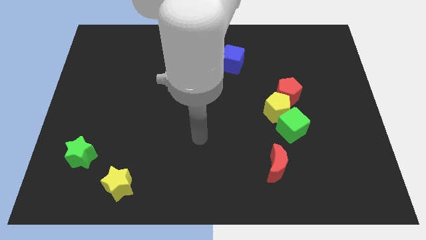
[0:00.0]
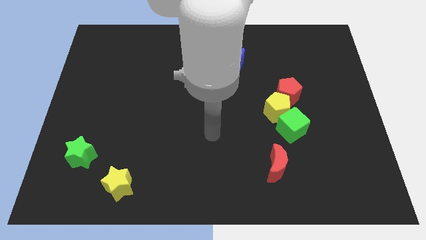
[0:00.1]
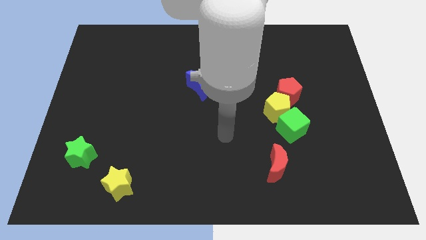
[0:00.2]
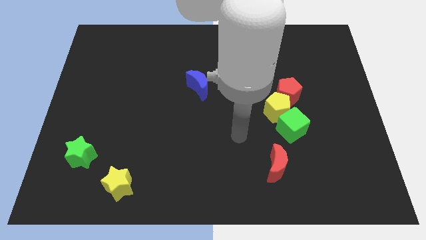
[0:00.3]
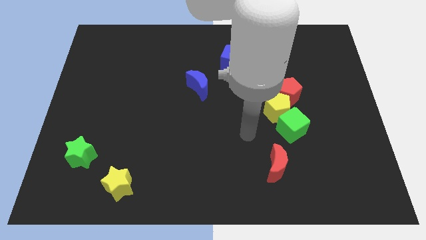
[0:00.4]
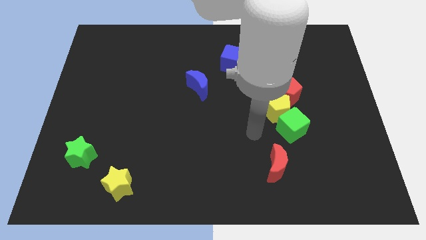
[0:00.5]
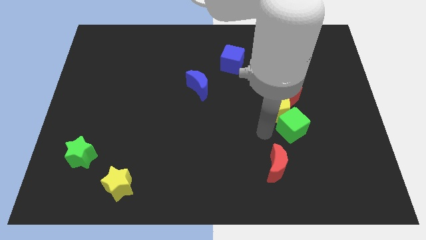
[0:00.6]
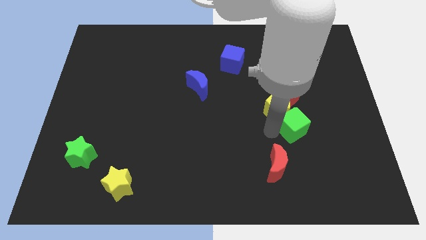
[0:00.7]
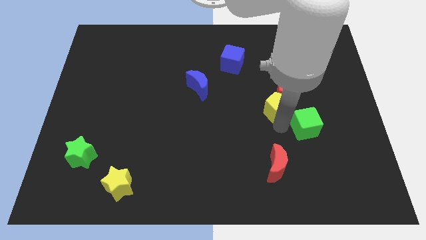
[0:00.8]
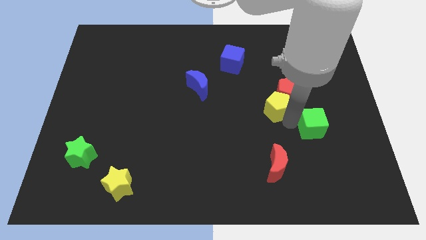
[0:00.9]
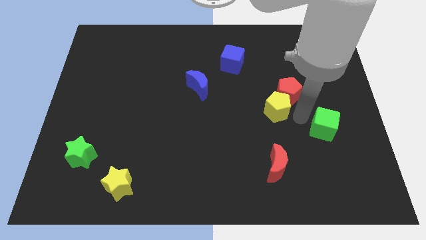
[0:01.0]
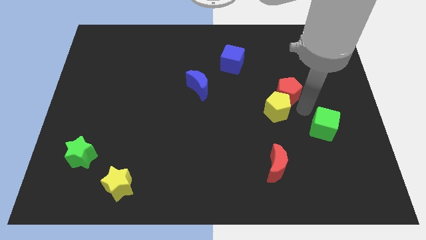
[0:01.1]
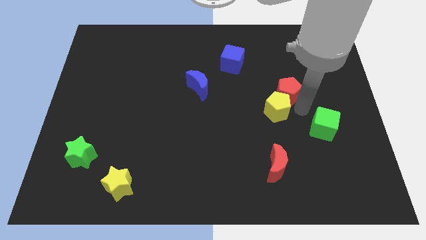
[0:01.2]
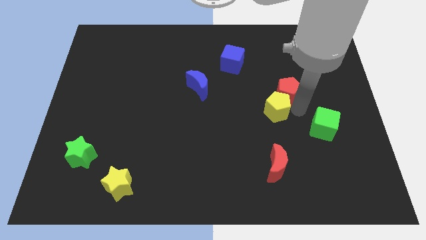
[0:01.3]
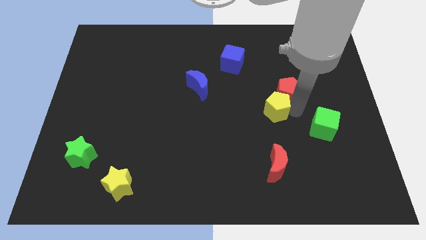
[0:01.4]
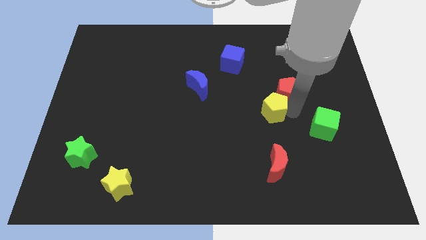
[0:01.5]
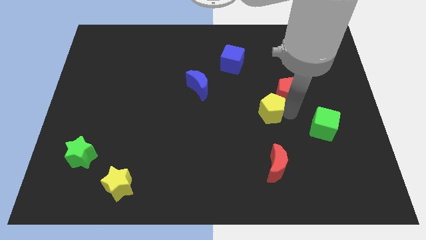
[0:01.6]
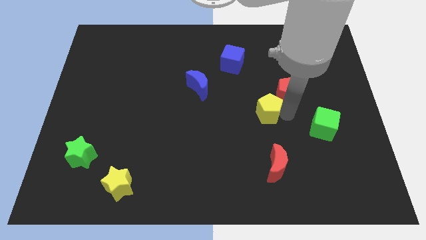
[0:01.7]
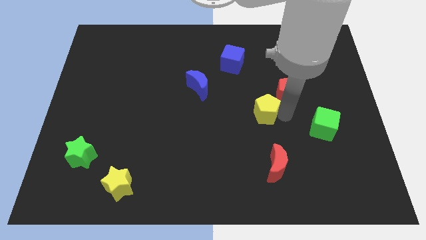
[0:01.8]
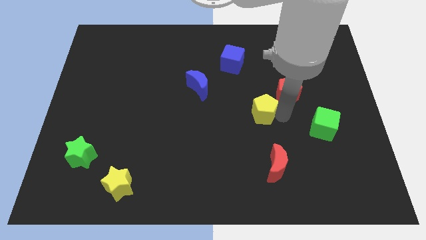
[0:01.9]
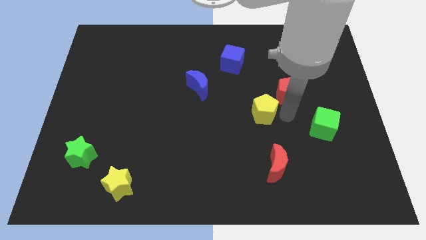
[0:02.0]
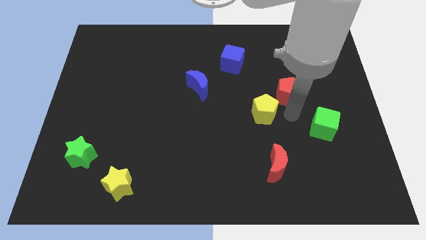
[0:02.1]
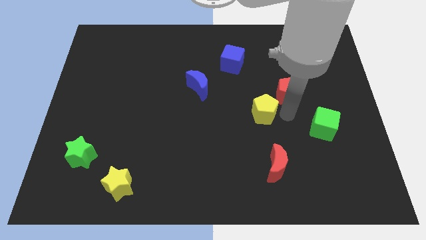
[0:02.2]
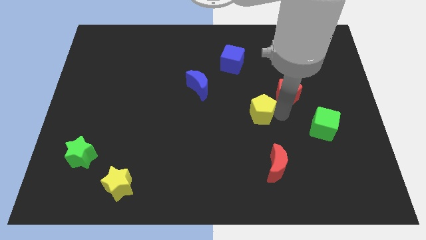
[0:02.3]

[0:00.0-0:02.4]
separate the yellow pentagon from the green cube and red pentagon

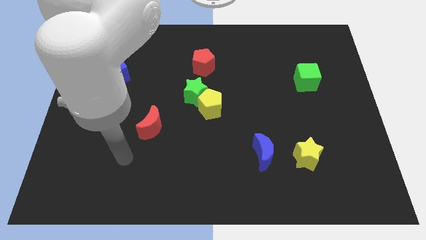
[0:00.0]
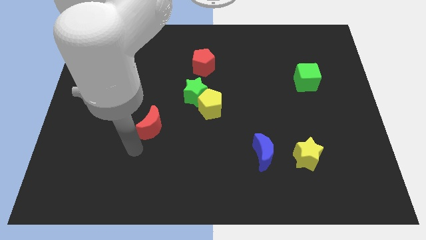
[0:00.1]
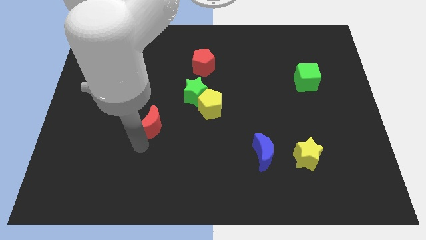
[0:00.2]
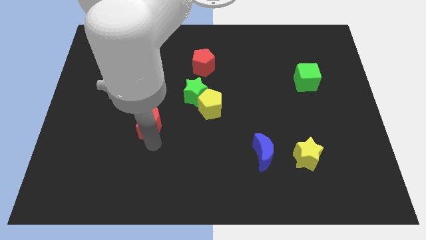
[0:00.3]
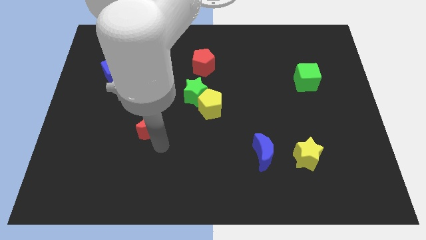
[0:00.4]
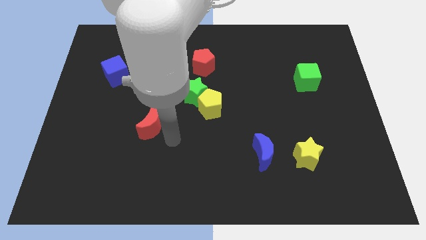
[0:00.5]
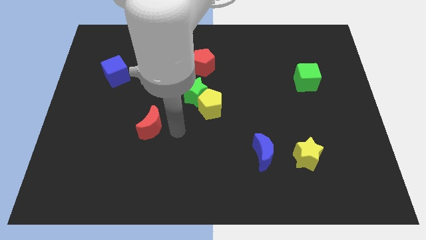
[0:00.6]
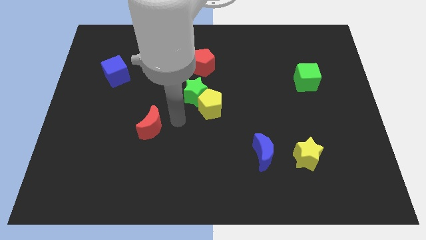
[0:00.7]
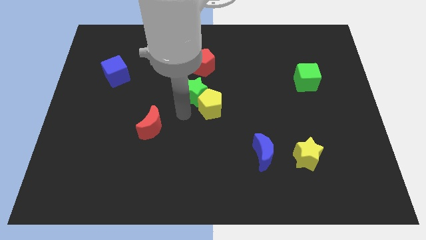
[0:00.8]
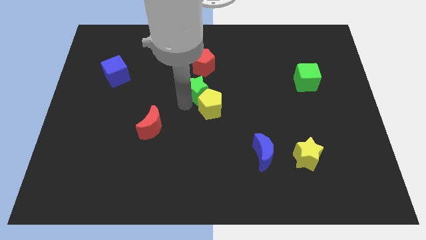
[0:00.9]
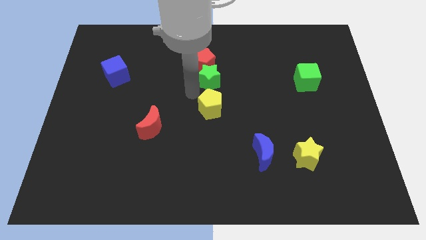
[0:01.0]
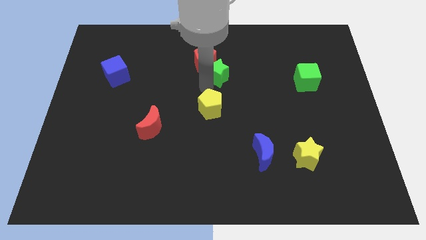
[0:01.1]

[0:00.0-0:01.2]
move the yellow pentagon away from the green star

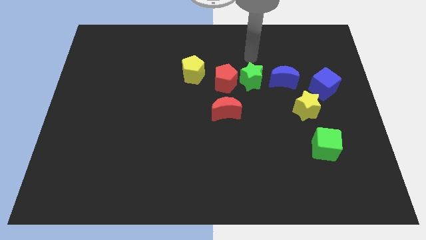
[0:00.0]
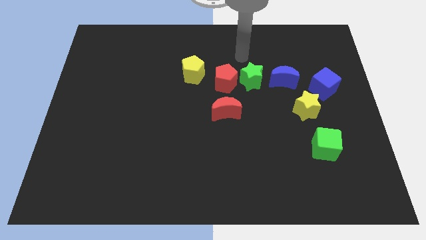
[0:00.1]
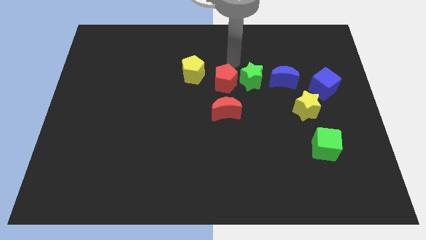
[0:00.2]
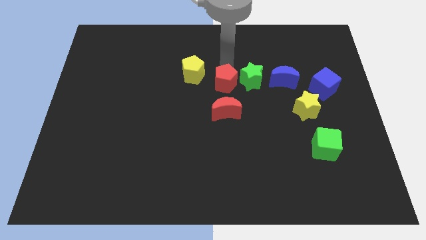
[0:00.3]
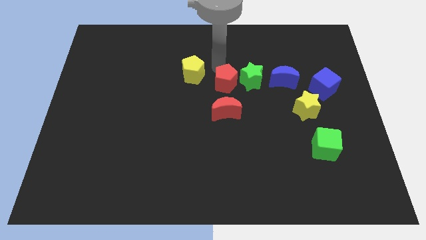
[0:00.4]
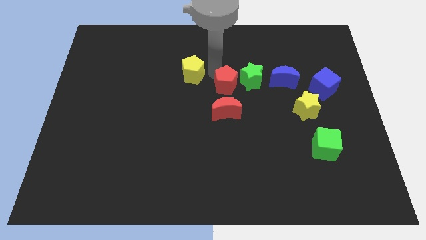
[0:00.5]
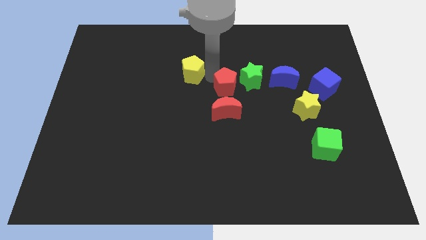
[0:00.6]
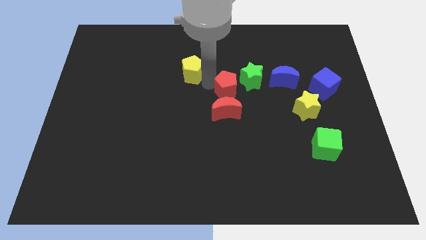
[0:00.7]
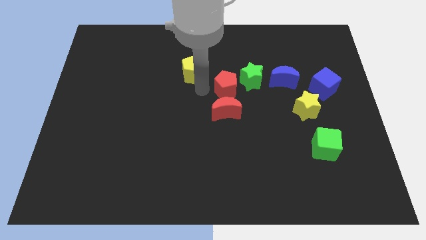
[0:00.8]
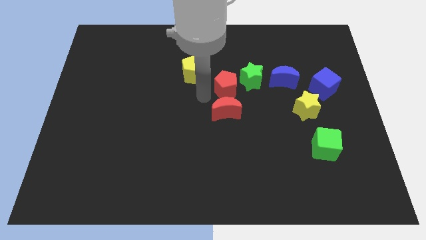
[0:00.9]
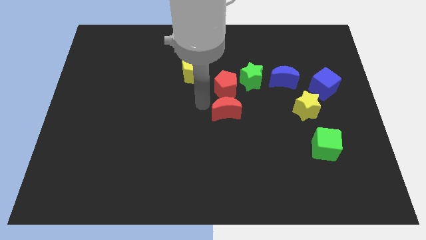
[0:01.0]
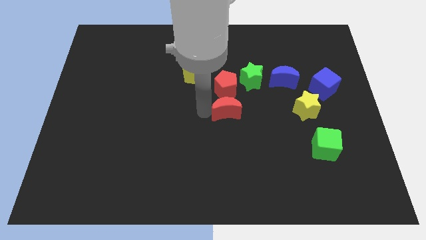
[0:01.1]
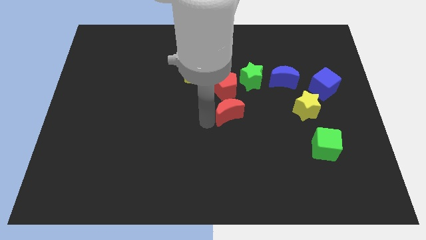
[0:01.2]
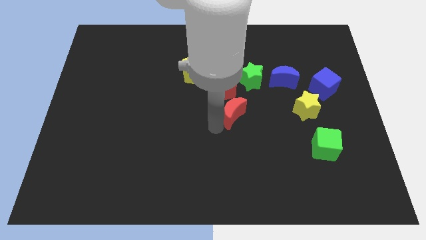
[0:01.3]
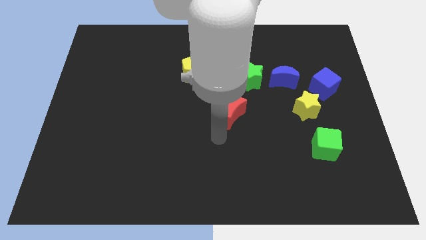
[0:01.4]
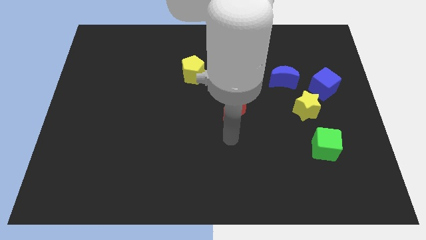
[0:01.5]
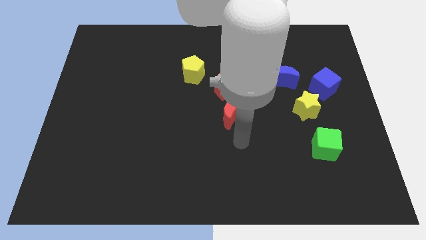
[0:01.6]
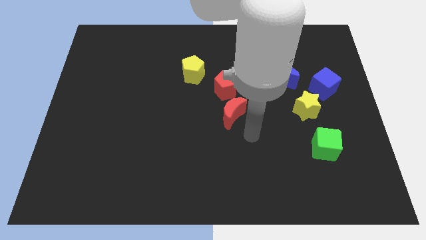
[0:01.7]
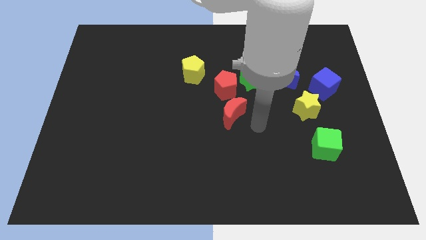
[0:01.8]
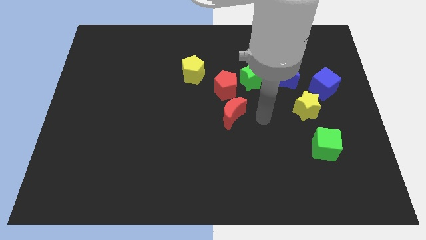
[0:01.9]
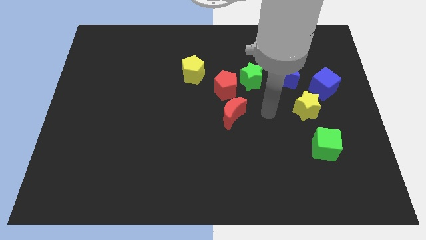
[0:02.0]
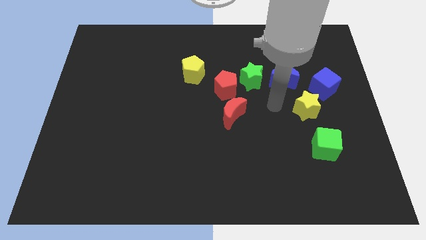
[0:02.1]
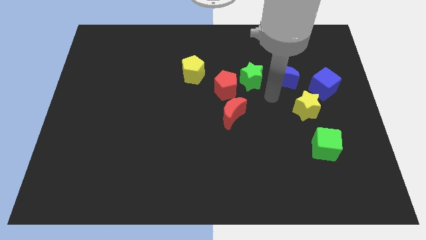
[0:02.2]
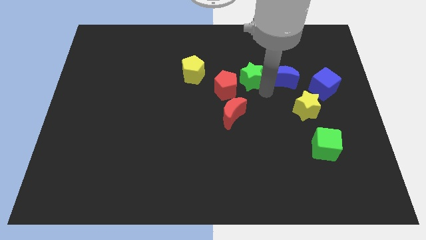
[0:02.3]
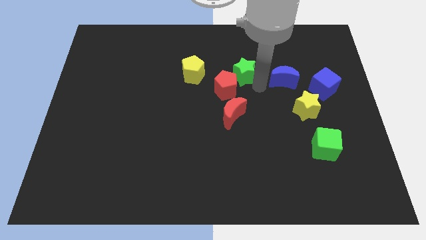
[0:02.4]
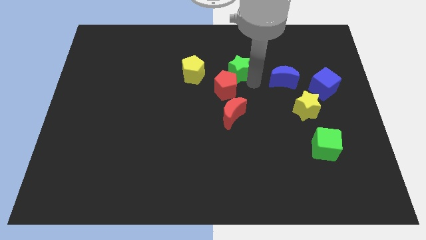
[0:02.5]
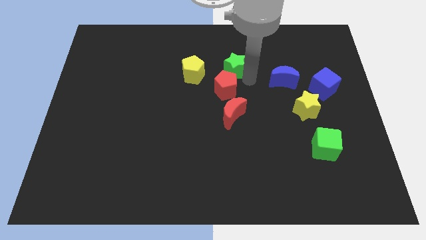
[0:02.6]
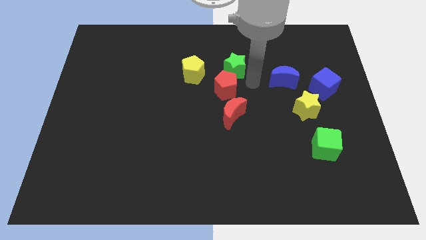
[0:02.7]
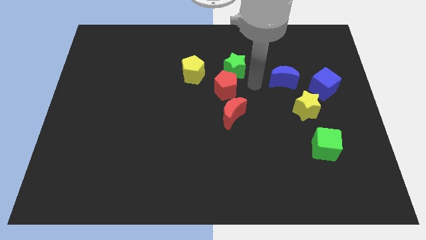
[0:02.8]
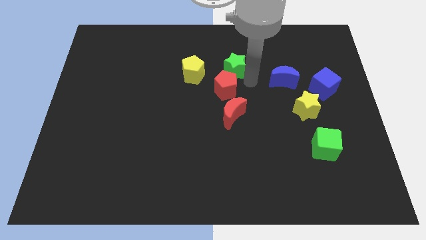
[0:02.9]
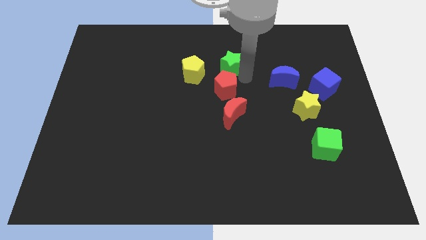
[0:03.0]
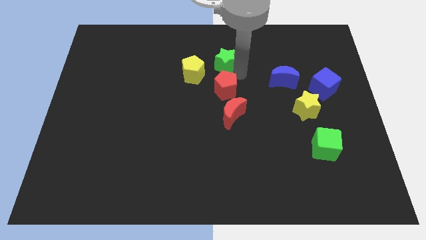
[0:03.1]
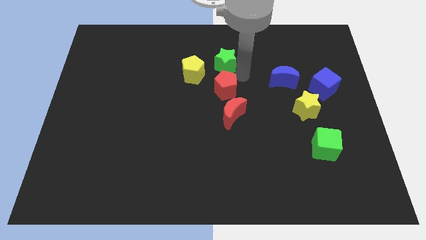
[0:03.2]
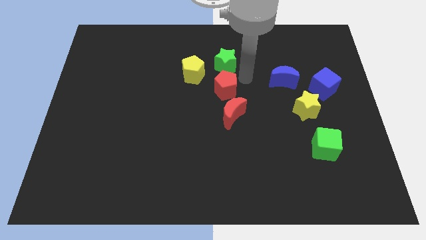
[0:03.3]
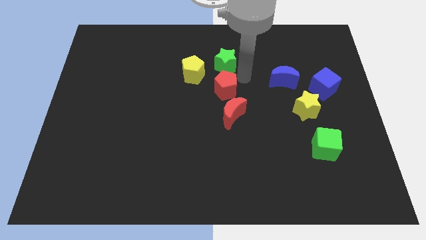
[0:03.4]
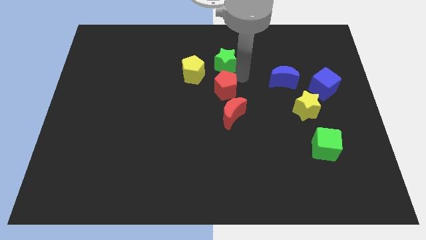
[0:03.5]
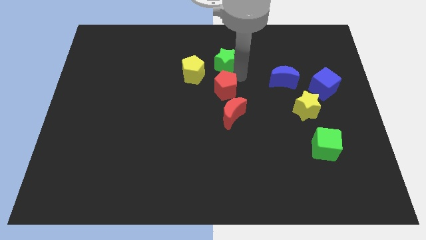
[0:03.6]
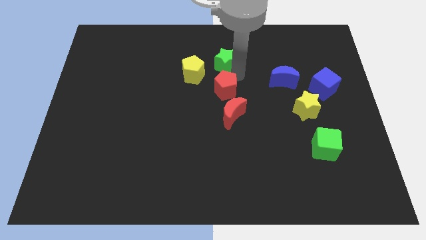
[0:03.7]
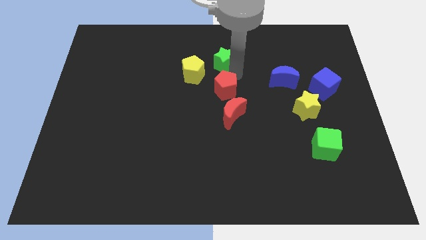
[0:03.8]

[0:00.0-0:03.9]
separate the green star from the red pentagon and blue moon

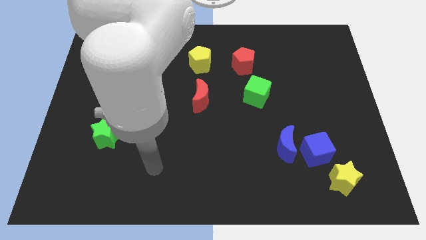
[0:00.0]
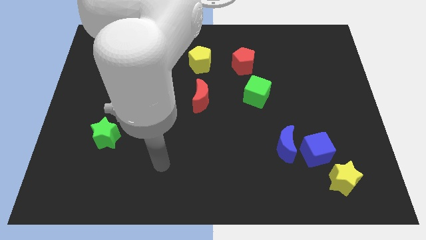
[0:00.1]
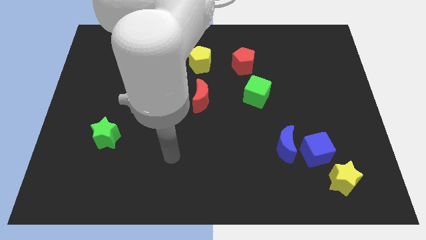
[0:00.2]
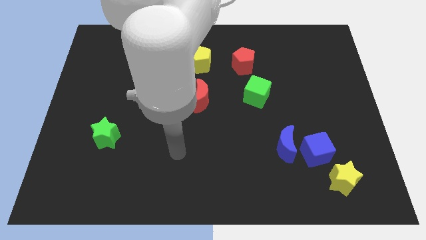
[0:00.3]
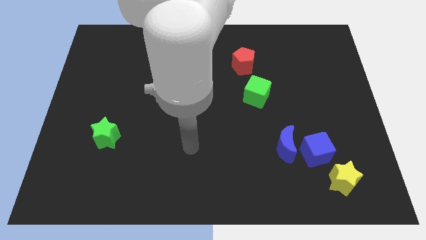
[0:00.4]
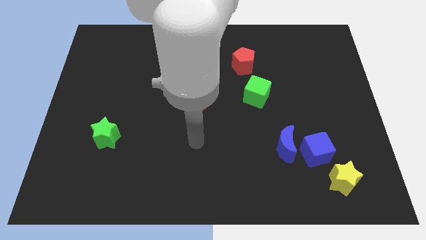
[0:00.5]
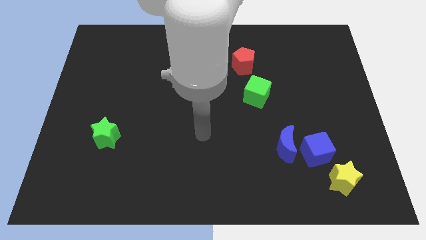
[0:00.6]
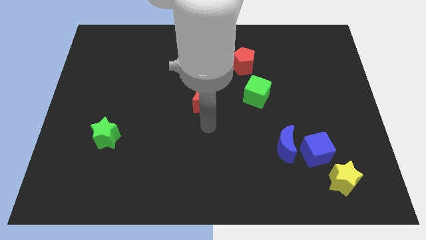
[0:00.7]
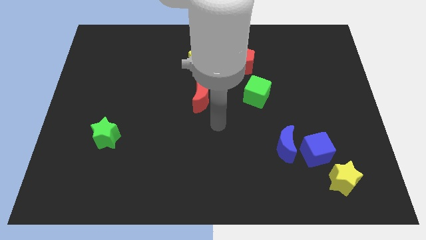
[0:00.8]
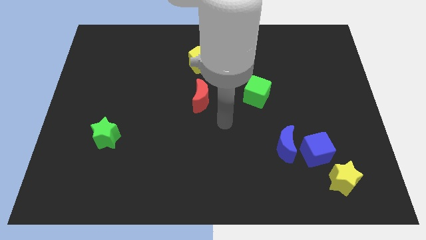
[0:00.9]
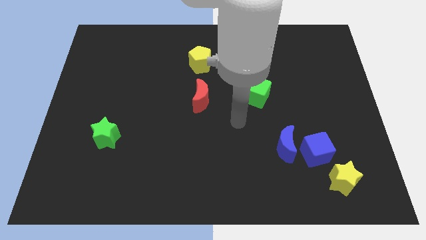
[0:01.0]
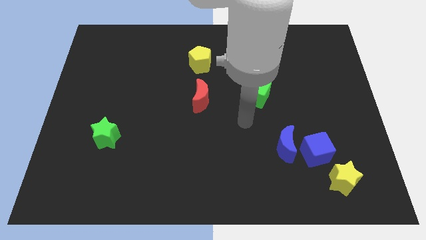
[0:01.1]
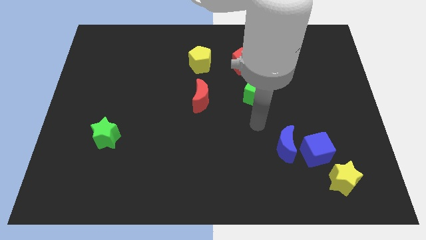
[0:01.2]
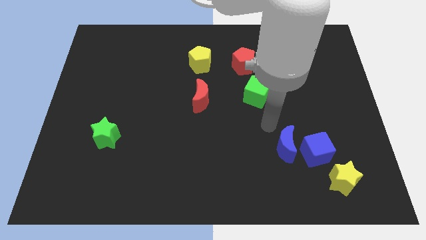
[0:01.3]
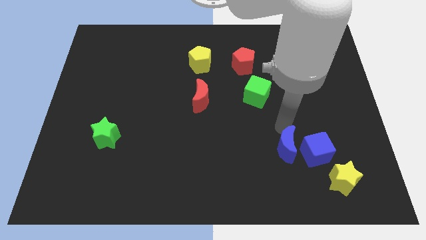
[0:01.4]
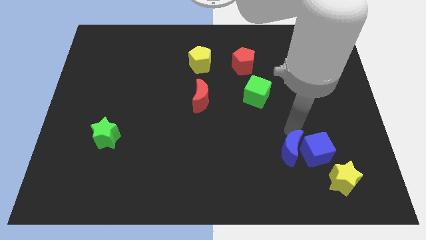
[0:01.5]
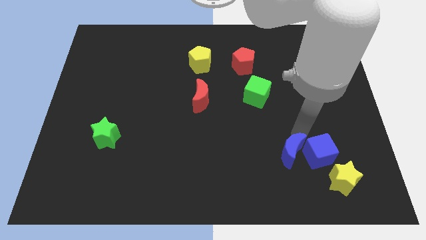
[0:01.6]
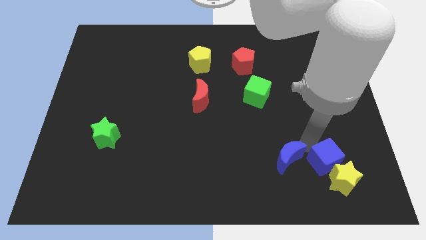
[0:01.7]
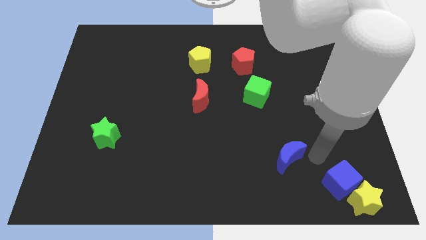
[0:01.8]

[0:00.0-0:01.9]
pull the blue moon apart from the blue cube
